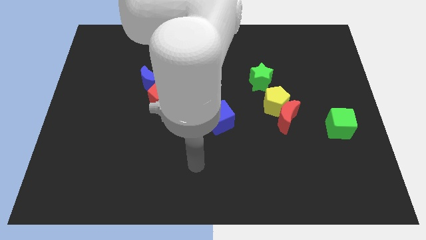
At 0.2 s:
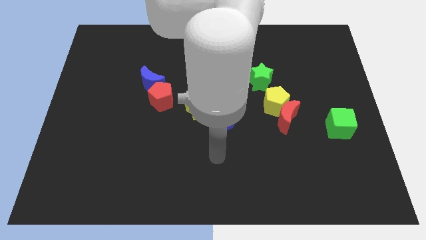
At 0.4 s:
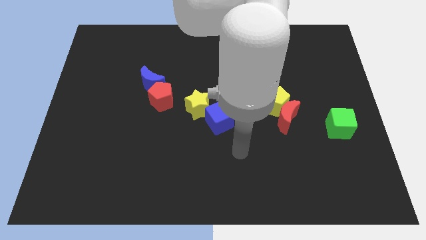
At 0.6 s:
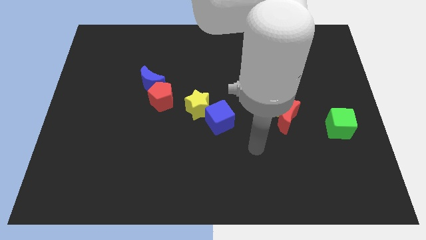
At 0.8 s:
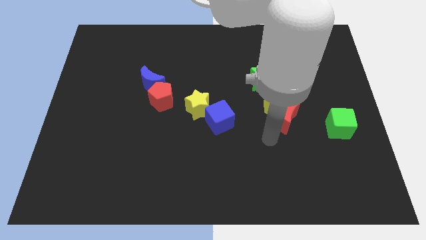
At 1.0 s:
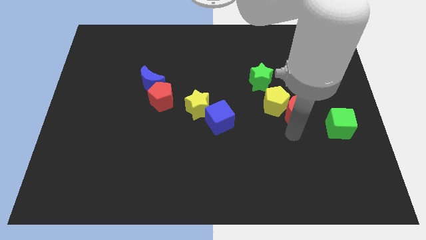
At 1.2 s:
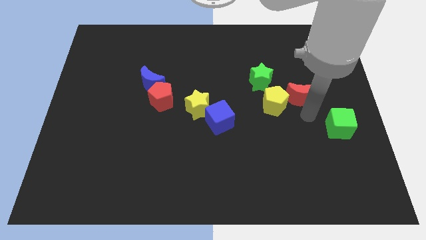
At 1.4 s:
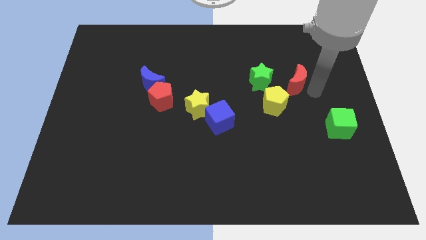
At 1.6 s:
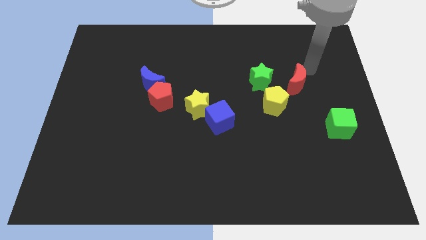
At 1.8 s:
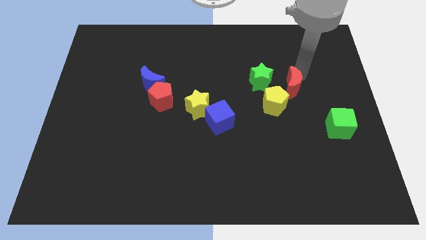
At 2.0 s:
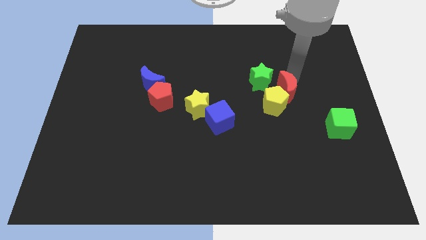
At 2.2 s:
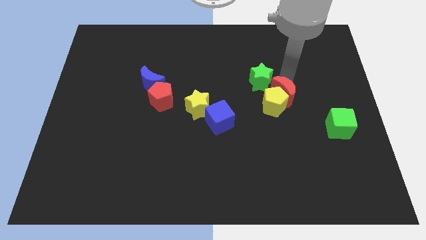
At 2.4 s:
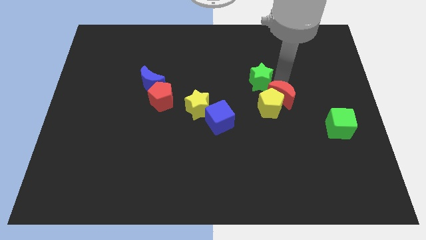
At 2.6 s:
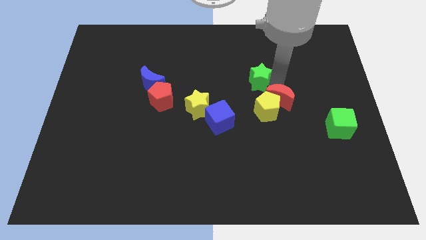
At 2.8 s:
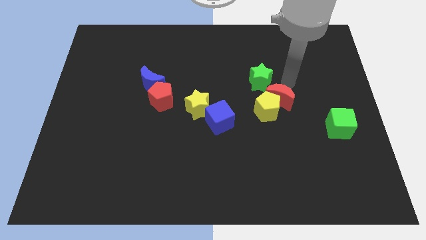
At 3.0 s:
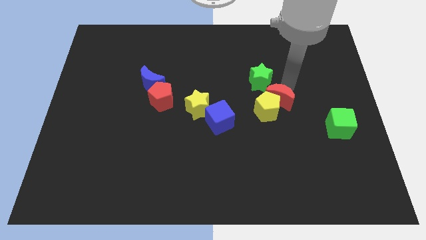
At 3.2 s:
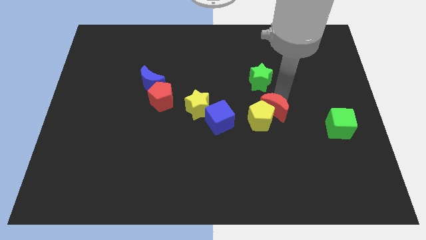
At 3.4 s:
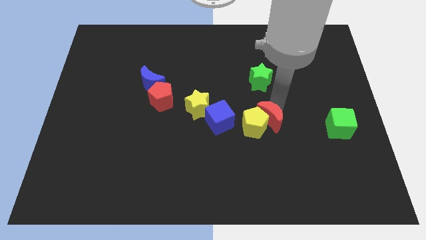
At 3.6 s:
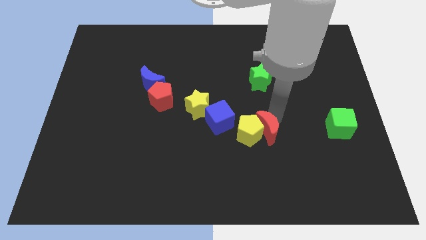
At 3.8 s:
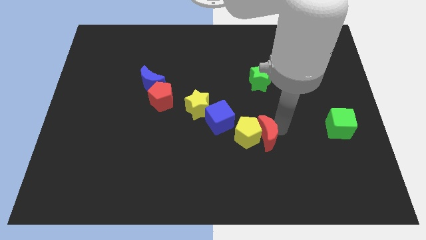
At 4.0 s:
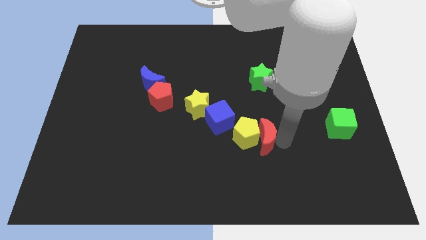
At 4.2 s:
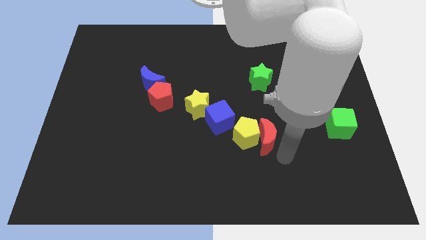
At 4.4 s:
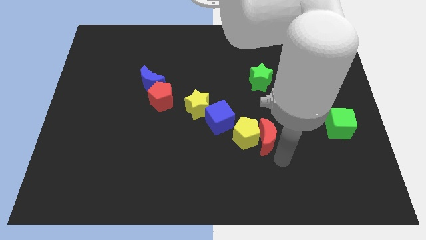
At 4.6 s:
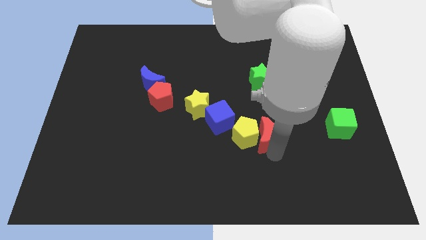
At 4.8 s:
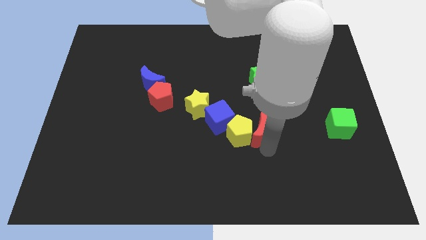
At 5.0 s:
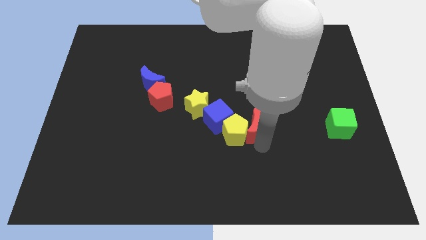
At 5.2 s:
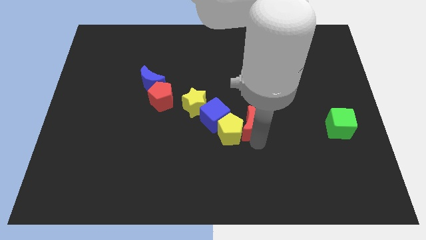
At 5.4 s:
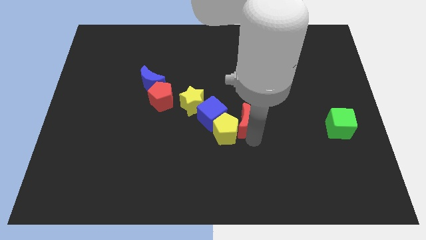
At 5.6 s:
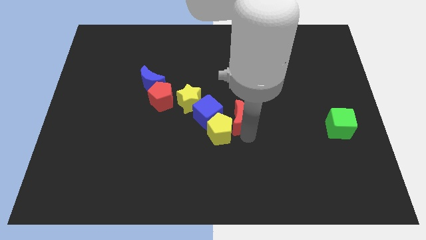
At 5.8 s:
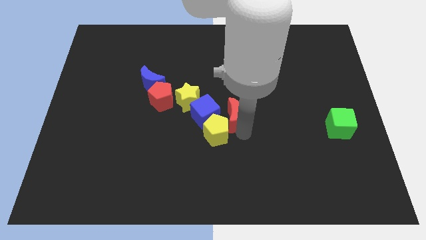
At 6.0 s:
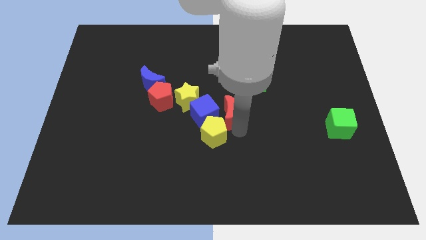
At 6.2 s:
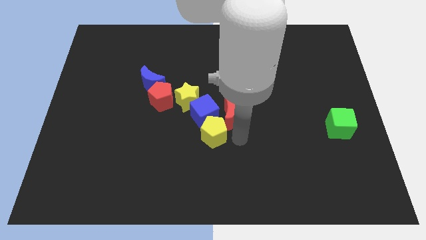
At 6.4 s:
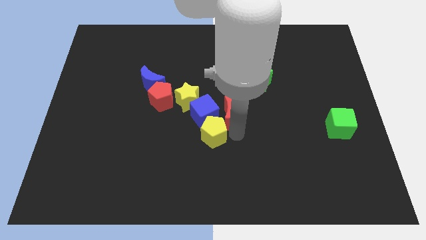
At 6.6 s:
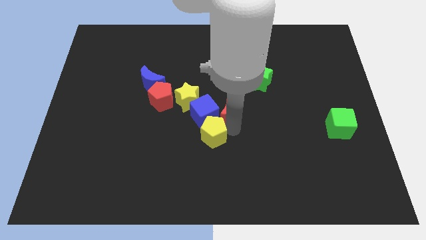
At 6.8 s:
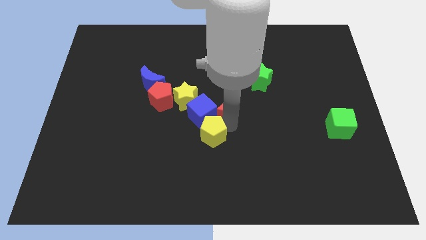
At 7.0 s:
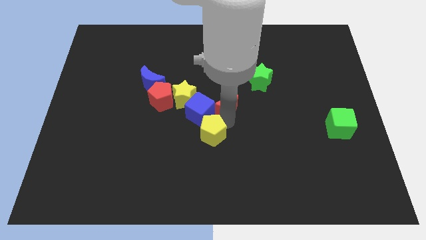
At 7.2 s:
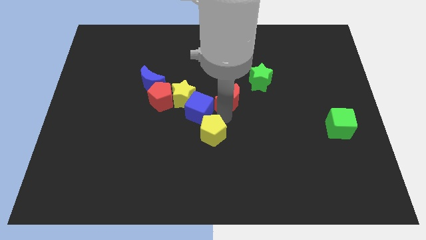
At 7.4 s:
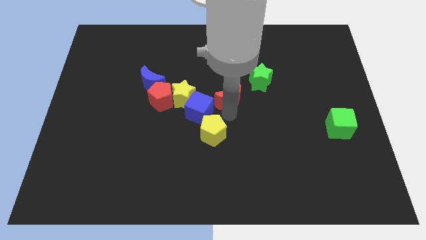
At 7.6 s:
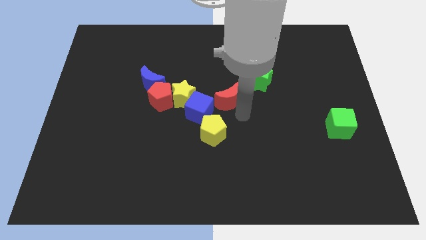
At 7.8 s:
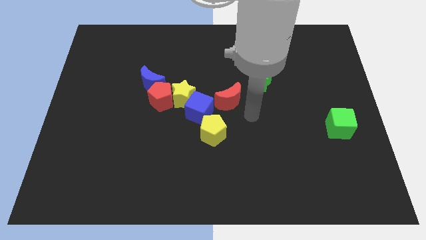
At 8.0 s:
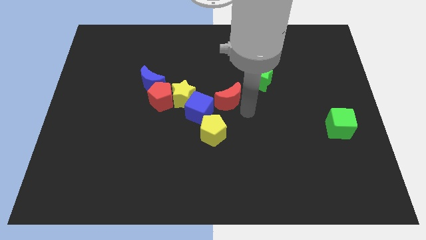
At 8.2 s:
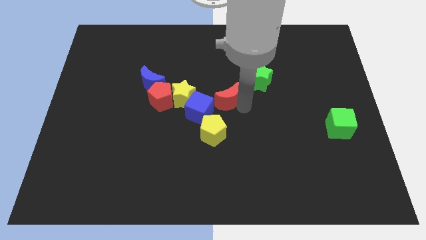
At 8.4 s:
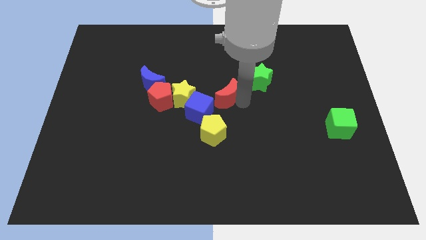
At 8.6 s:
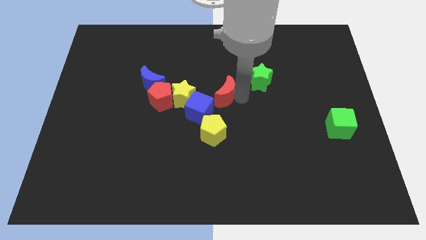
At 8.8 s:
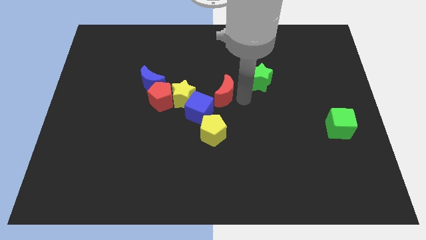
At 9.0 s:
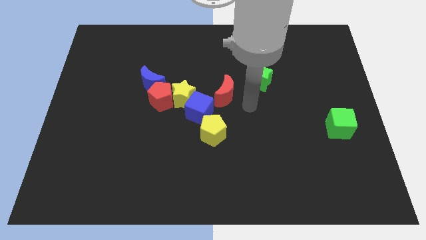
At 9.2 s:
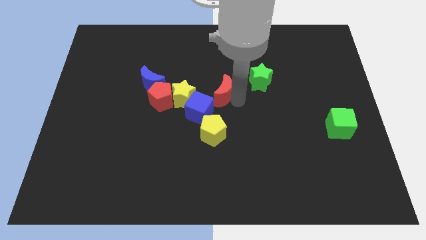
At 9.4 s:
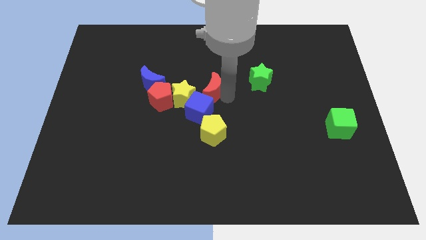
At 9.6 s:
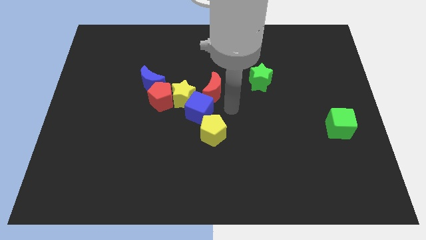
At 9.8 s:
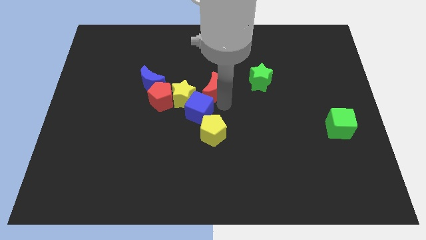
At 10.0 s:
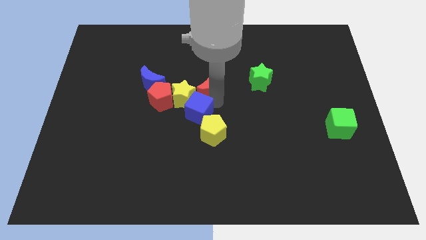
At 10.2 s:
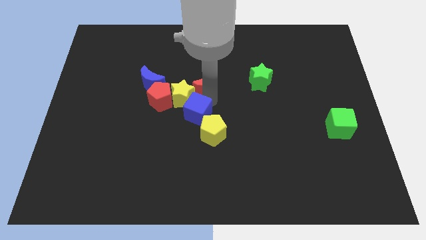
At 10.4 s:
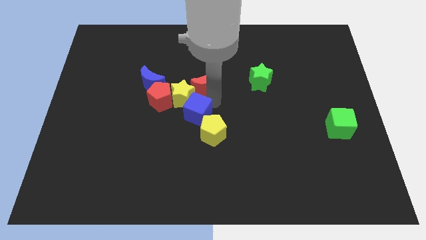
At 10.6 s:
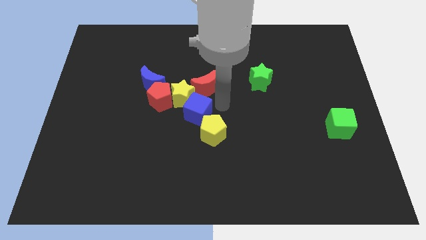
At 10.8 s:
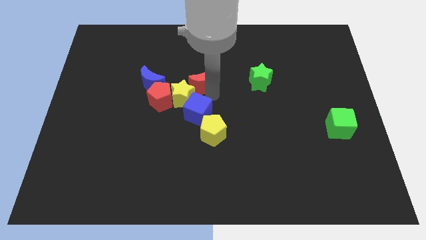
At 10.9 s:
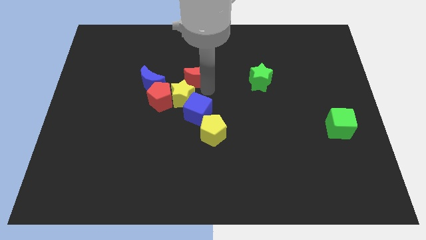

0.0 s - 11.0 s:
push the red moon to the top of the yellow star

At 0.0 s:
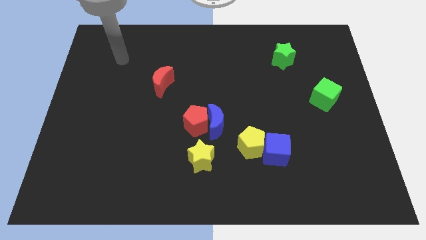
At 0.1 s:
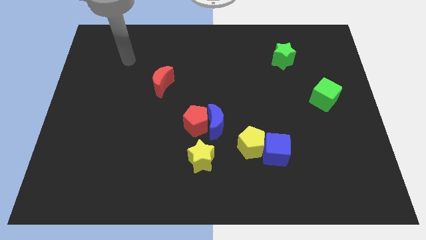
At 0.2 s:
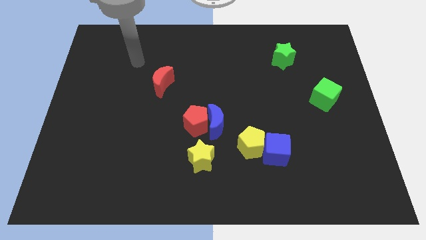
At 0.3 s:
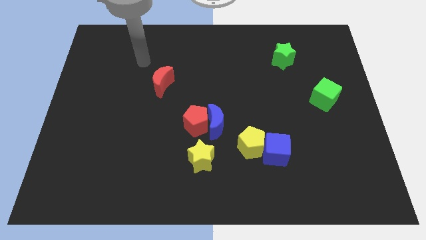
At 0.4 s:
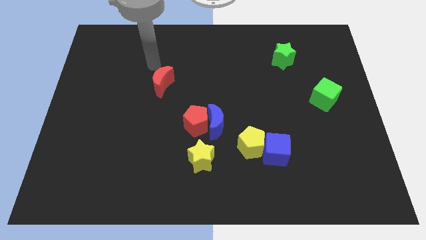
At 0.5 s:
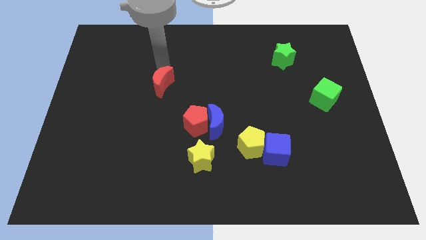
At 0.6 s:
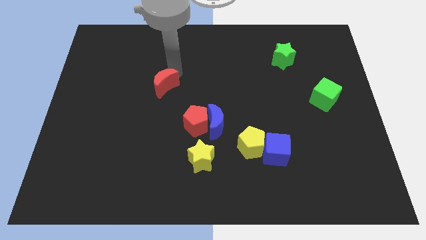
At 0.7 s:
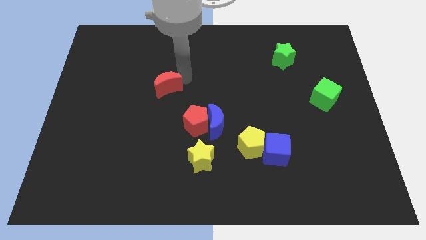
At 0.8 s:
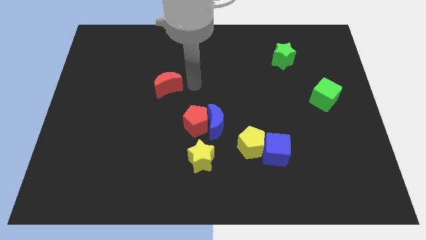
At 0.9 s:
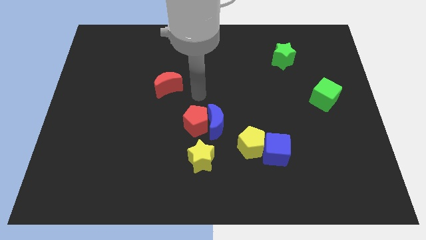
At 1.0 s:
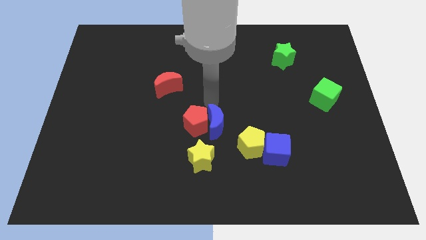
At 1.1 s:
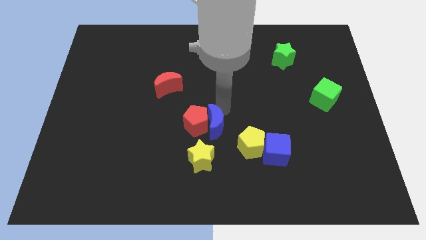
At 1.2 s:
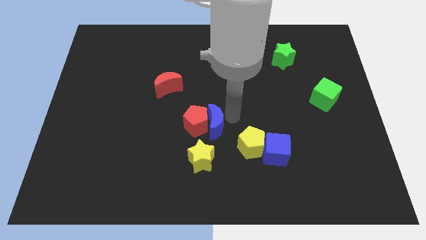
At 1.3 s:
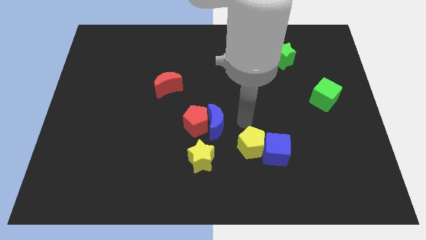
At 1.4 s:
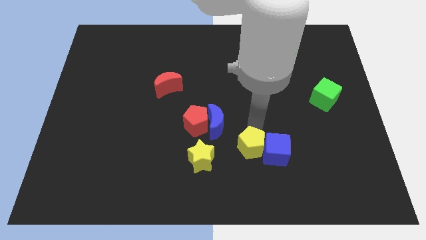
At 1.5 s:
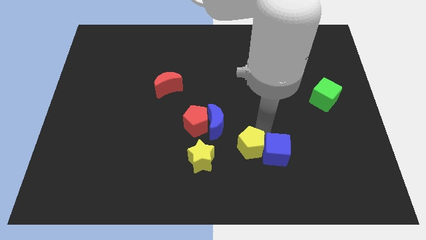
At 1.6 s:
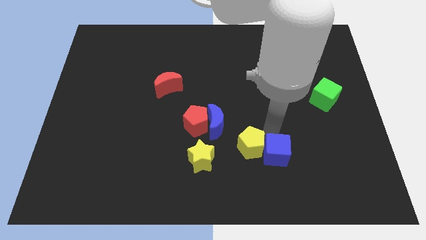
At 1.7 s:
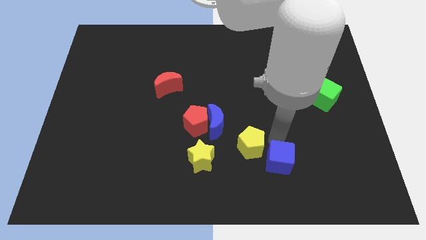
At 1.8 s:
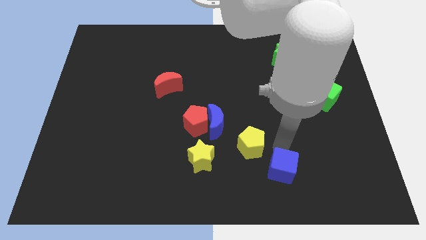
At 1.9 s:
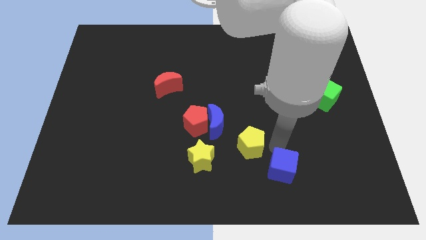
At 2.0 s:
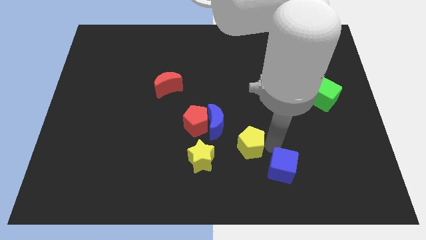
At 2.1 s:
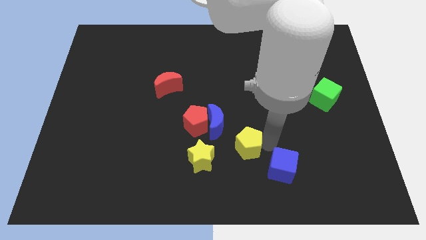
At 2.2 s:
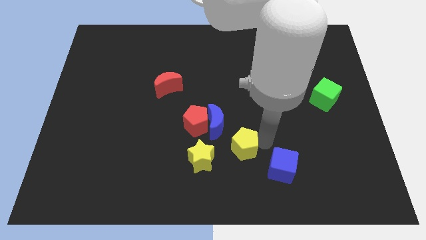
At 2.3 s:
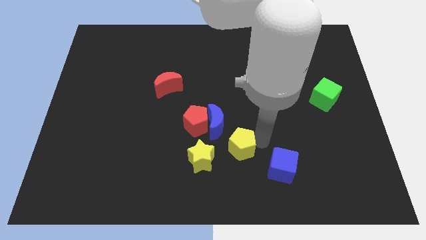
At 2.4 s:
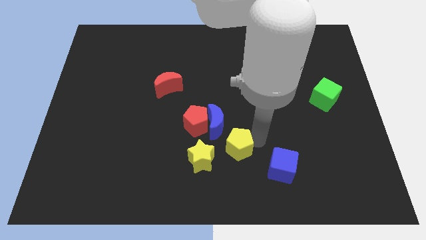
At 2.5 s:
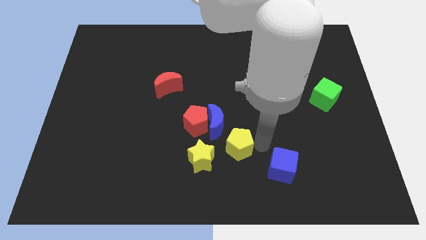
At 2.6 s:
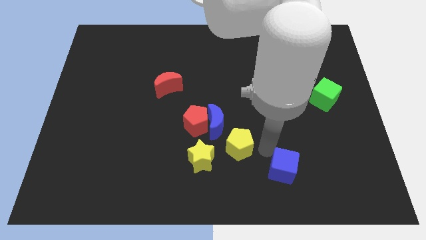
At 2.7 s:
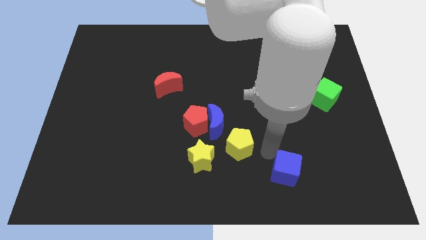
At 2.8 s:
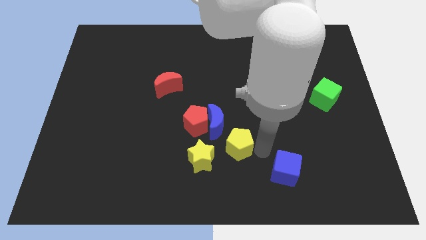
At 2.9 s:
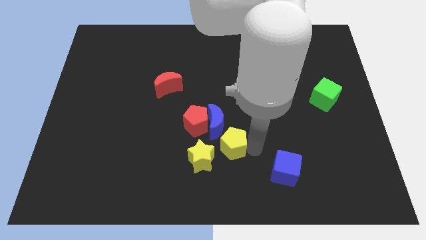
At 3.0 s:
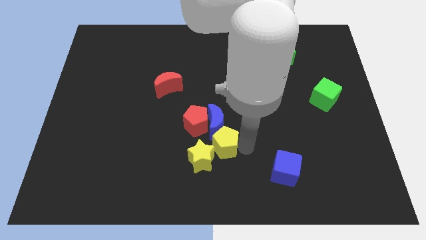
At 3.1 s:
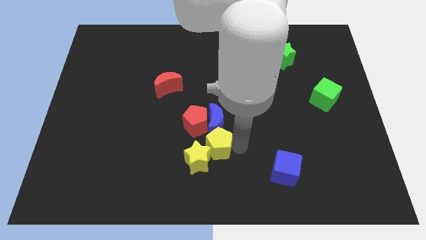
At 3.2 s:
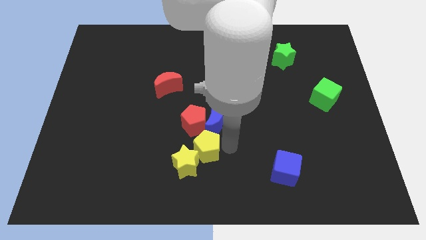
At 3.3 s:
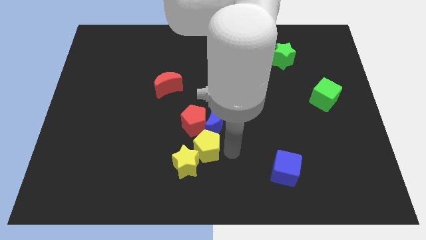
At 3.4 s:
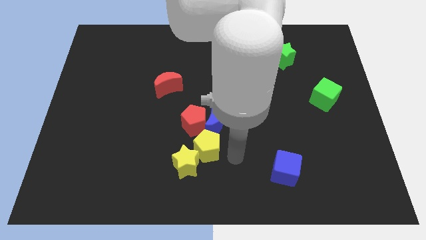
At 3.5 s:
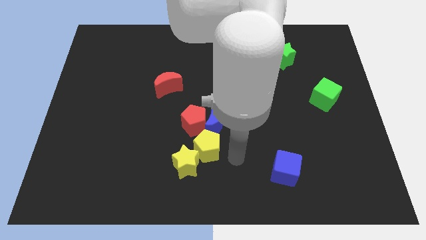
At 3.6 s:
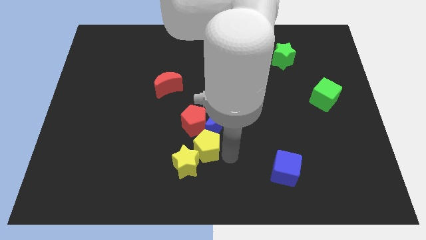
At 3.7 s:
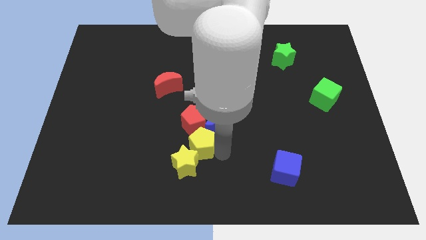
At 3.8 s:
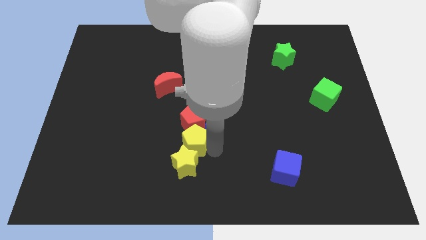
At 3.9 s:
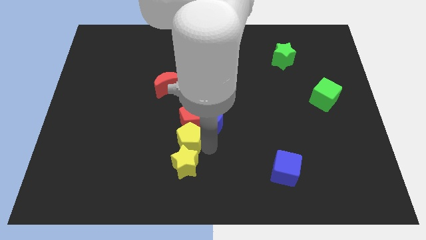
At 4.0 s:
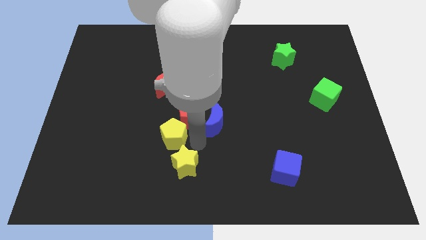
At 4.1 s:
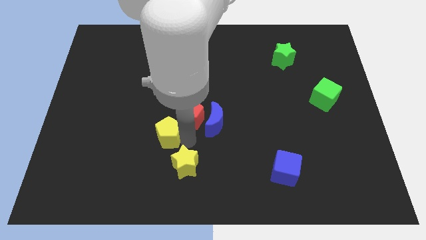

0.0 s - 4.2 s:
put the yellow pentagon to the left side of the red pentagon
